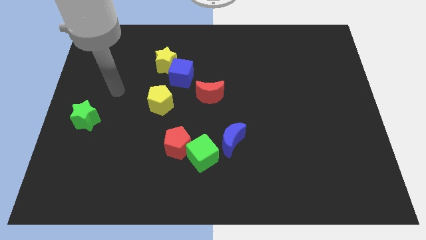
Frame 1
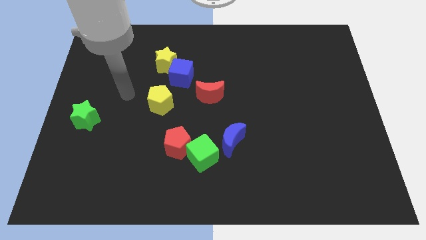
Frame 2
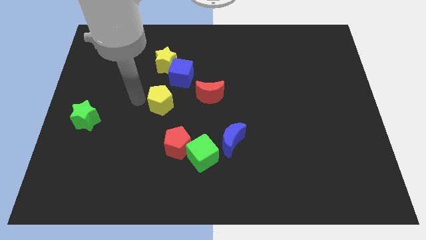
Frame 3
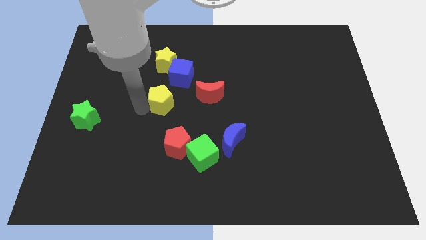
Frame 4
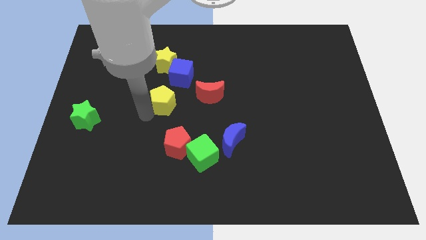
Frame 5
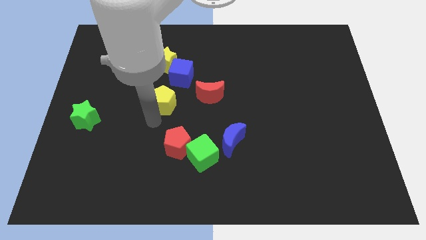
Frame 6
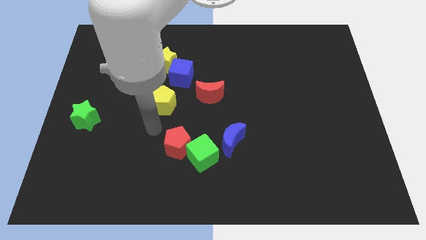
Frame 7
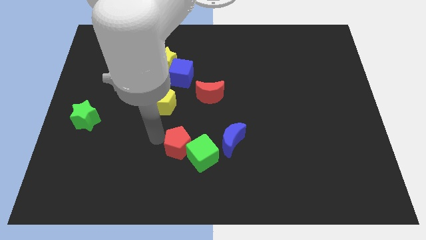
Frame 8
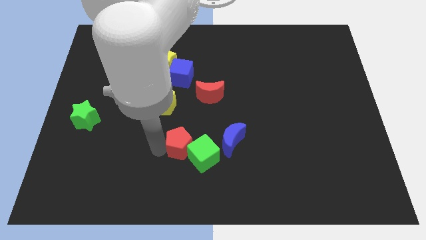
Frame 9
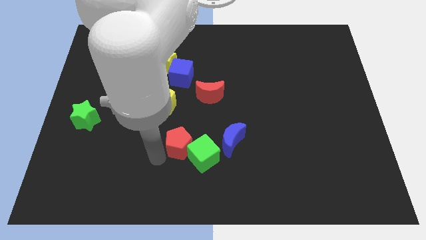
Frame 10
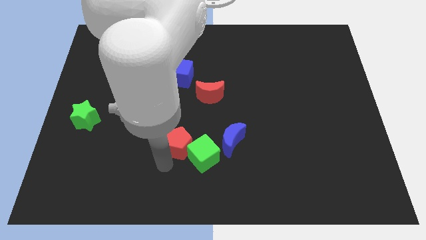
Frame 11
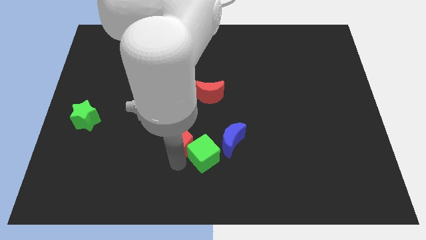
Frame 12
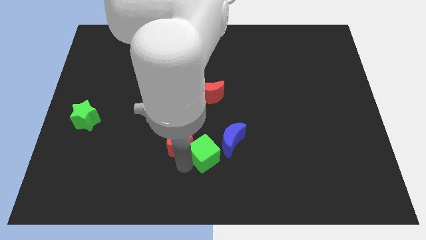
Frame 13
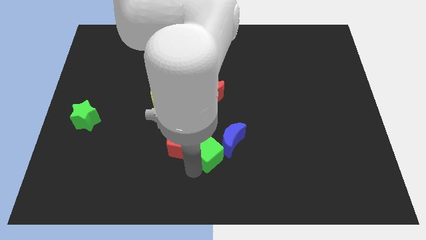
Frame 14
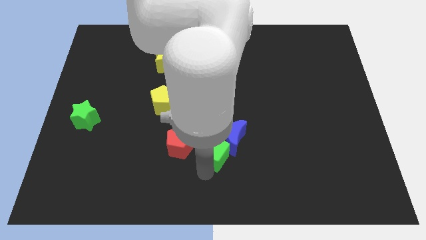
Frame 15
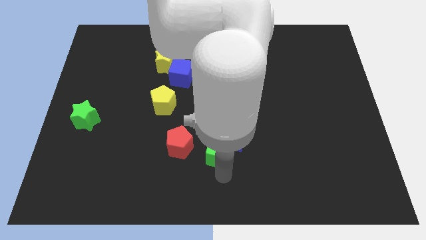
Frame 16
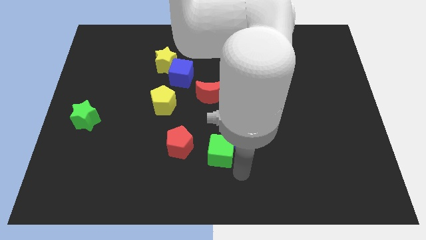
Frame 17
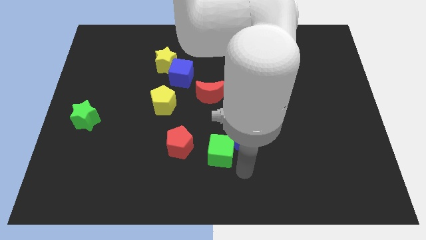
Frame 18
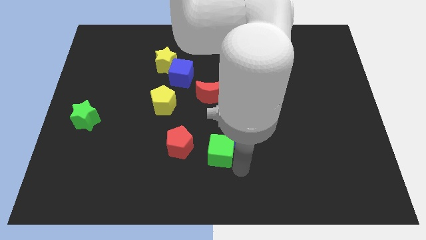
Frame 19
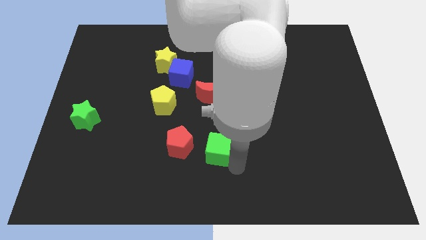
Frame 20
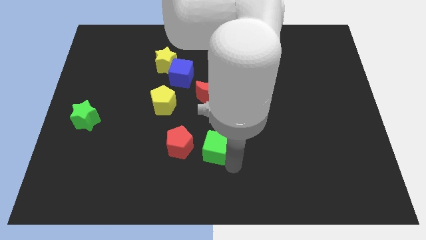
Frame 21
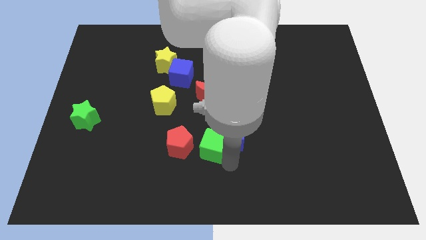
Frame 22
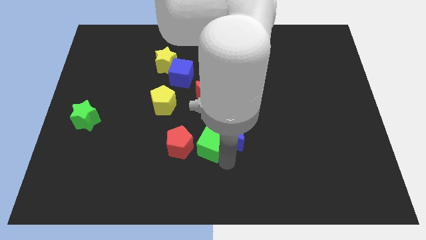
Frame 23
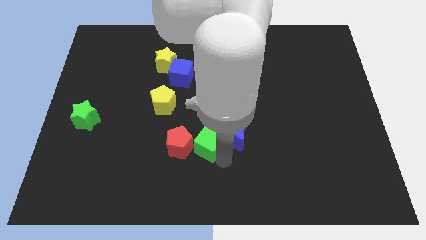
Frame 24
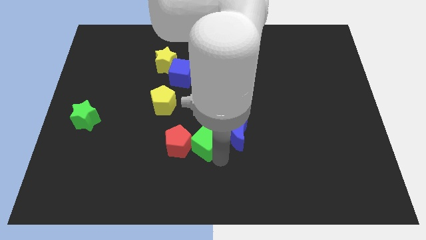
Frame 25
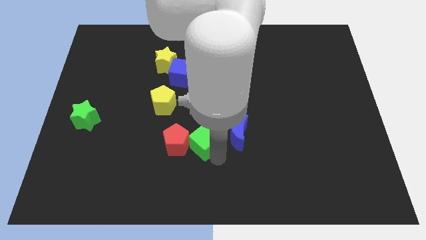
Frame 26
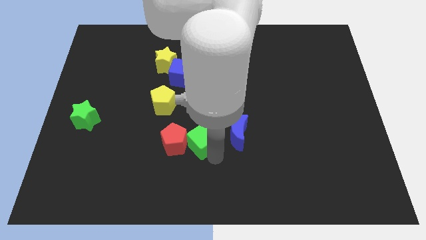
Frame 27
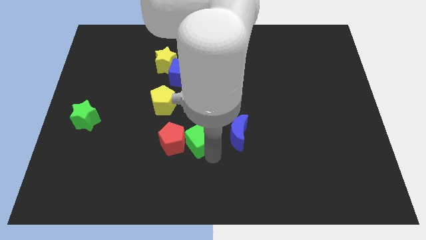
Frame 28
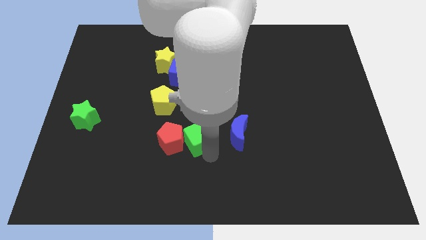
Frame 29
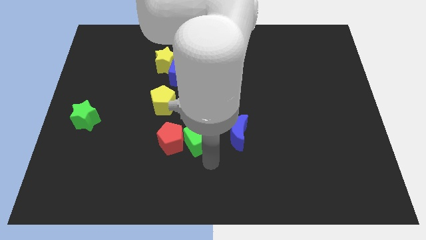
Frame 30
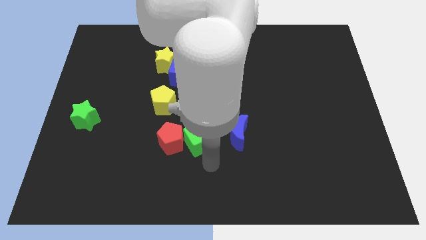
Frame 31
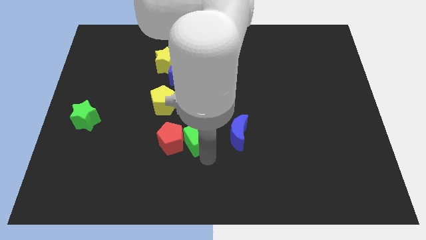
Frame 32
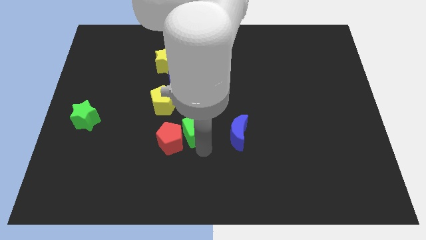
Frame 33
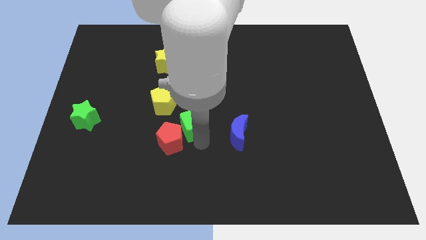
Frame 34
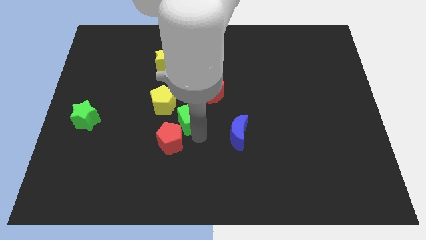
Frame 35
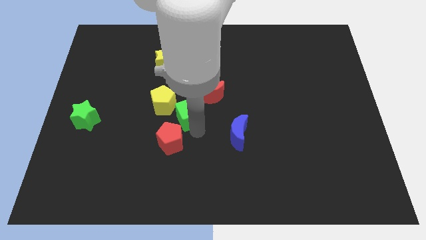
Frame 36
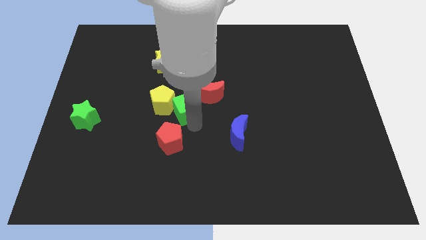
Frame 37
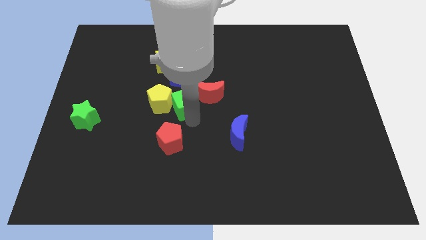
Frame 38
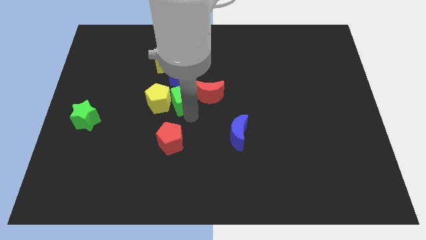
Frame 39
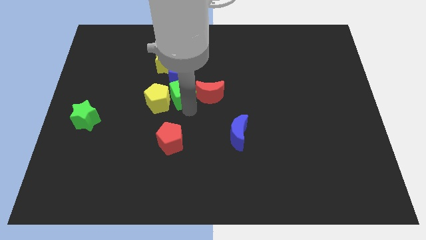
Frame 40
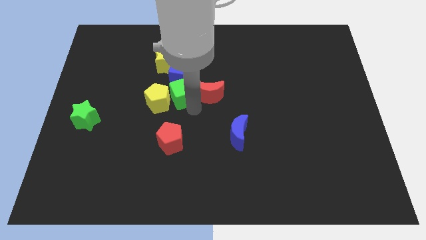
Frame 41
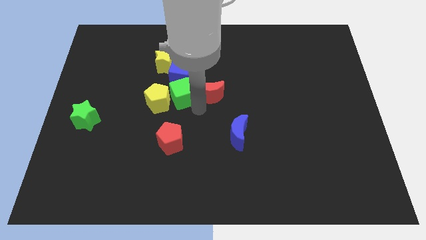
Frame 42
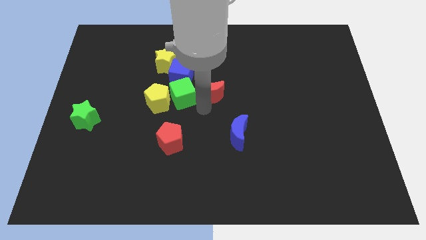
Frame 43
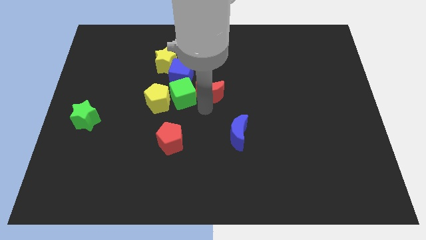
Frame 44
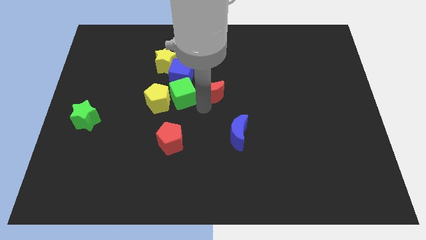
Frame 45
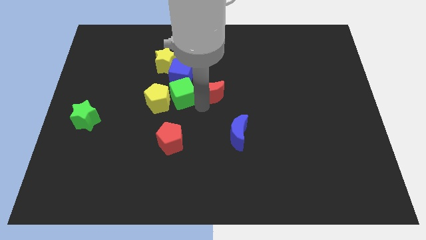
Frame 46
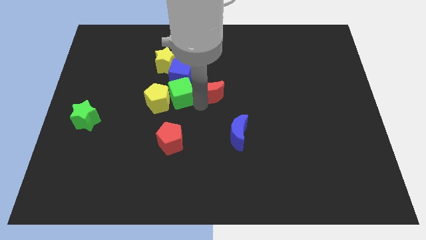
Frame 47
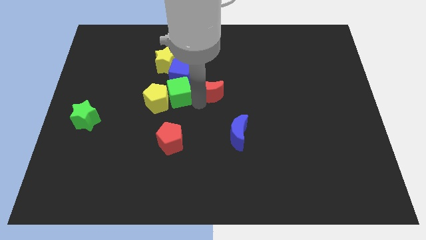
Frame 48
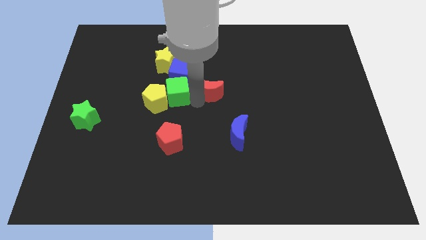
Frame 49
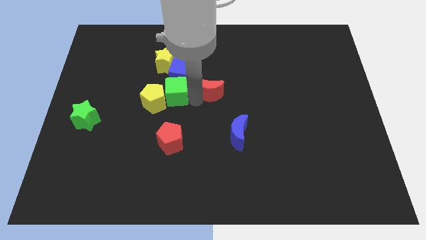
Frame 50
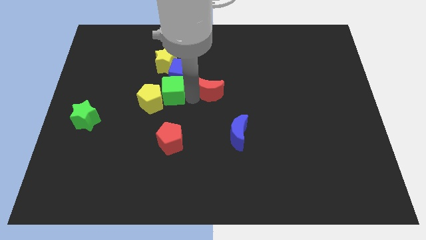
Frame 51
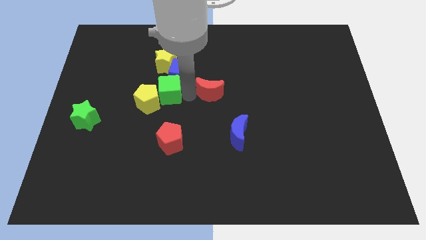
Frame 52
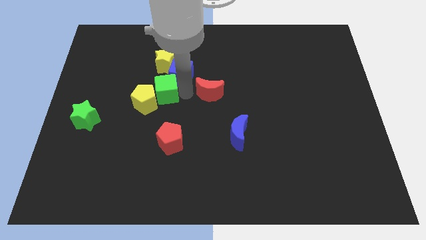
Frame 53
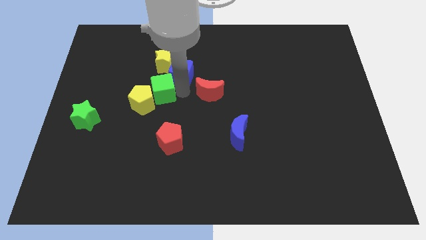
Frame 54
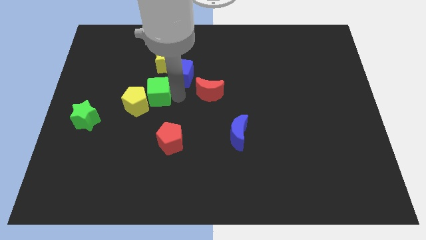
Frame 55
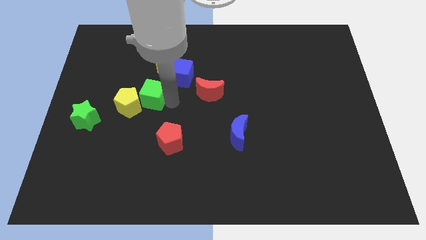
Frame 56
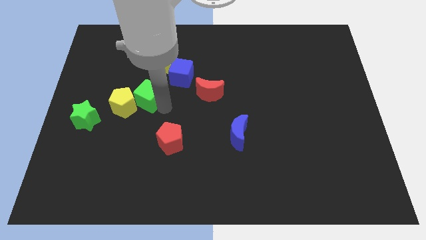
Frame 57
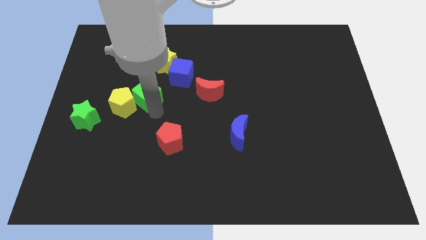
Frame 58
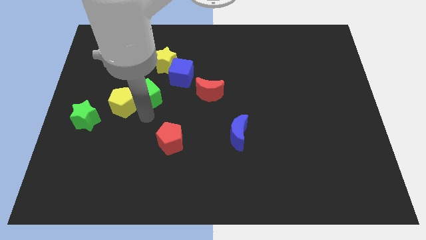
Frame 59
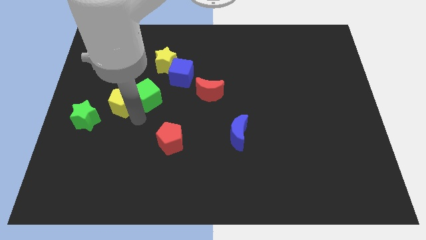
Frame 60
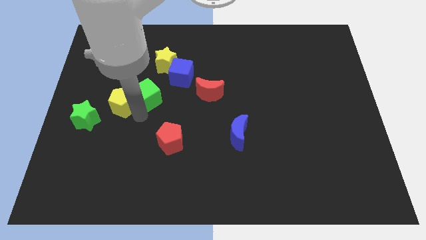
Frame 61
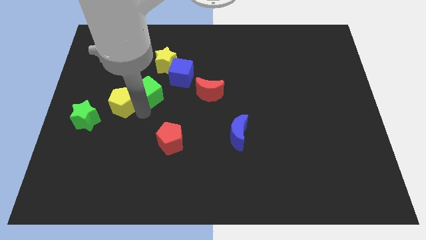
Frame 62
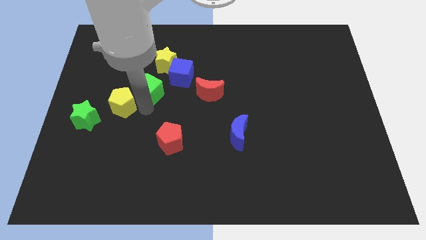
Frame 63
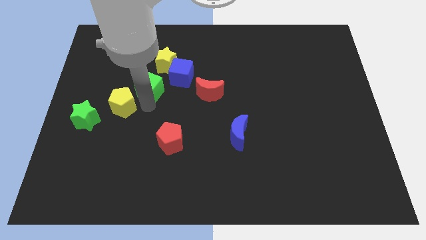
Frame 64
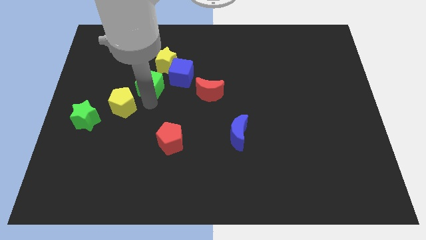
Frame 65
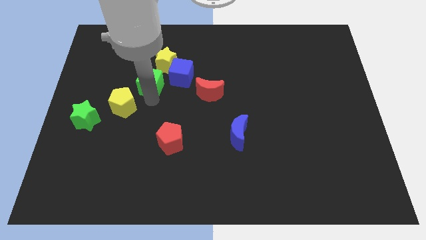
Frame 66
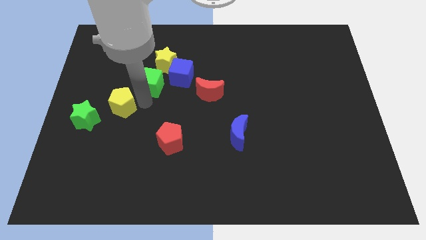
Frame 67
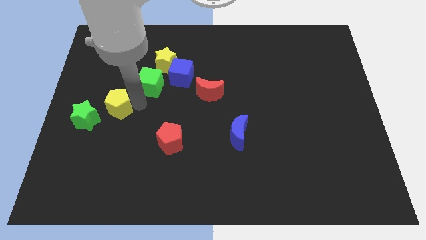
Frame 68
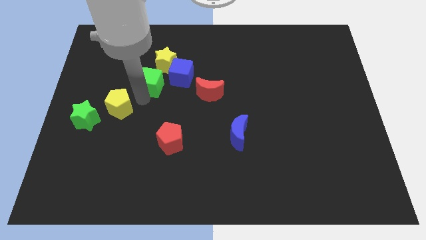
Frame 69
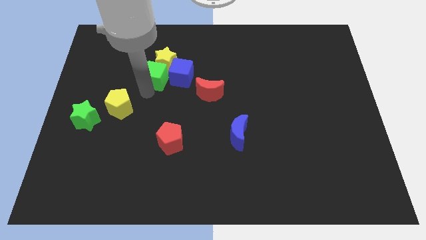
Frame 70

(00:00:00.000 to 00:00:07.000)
push the green cube to the yellow star
